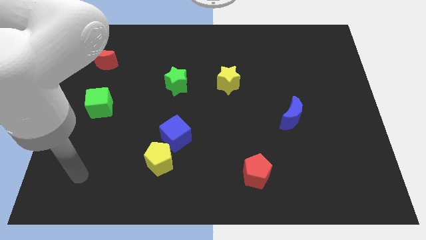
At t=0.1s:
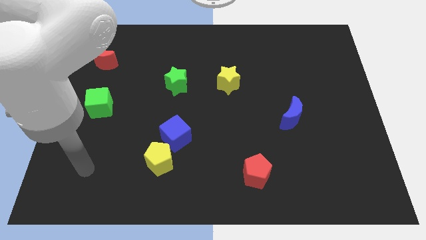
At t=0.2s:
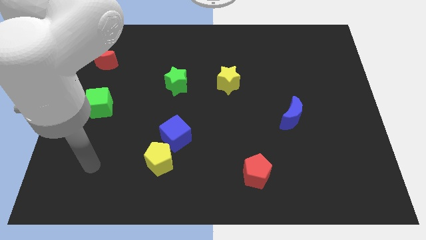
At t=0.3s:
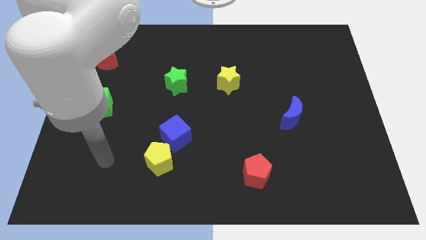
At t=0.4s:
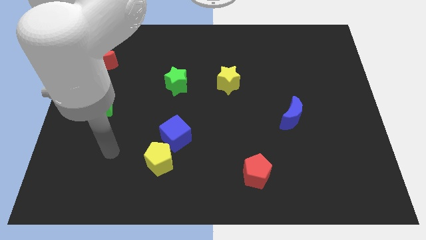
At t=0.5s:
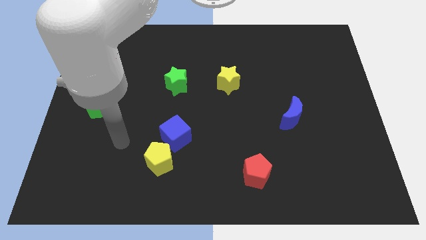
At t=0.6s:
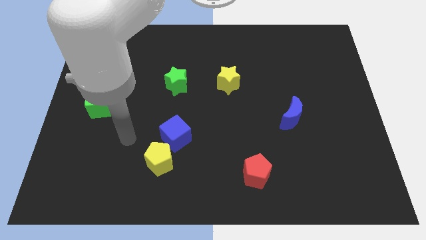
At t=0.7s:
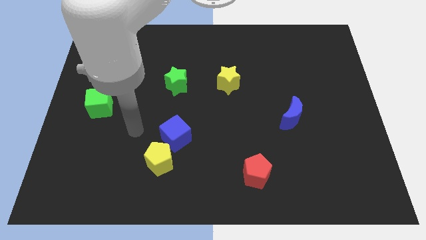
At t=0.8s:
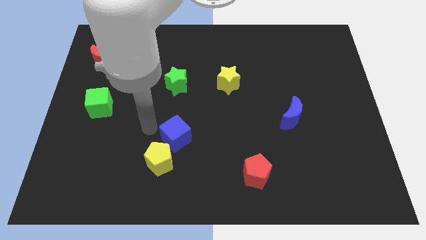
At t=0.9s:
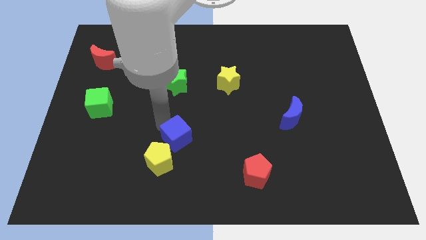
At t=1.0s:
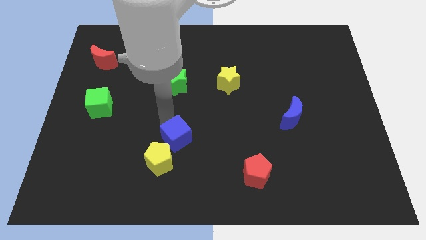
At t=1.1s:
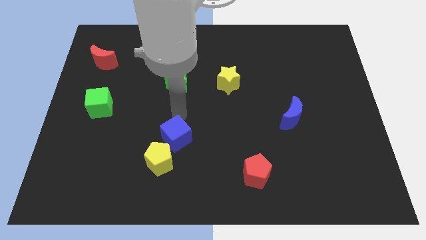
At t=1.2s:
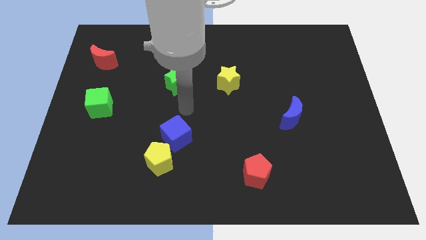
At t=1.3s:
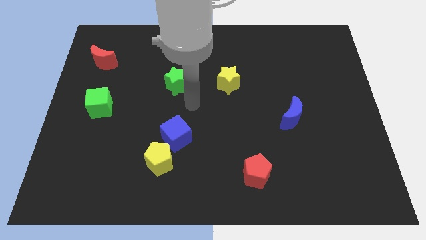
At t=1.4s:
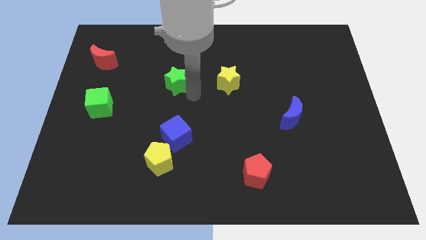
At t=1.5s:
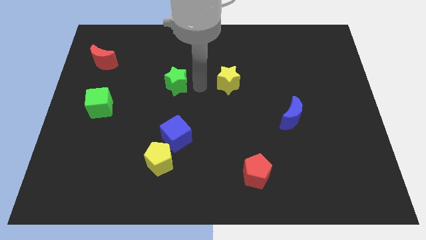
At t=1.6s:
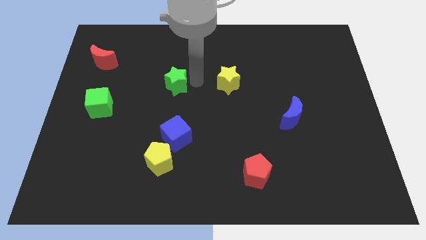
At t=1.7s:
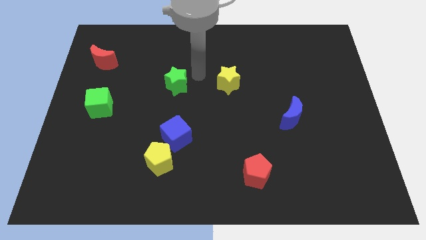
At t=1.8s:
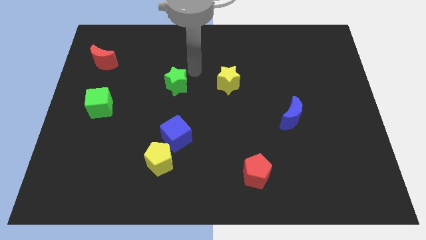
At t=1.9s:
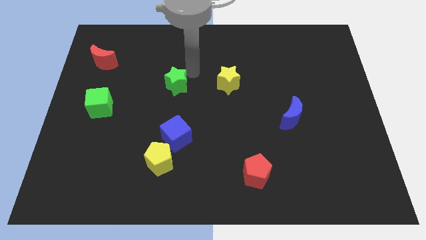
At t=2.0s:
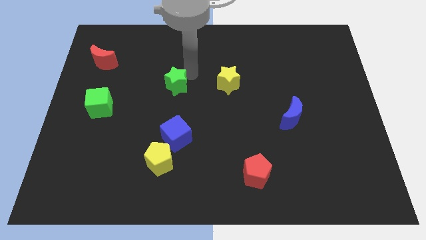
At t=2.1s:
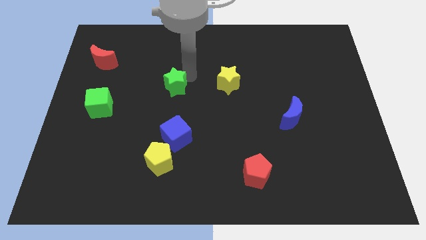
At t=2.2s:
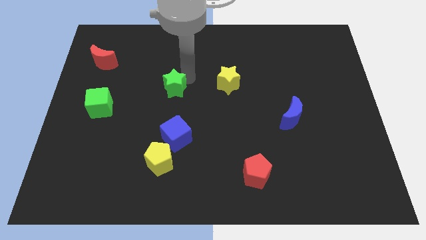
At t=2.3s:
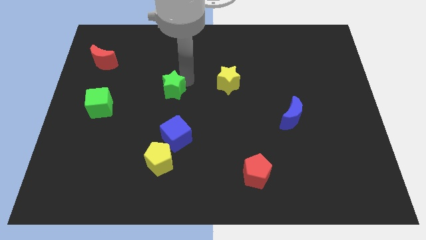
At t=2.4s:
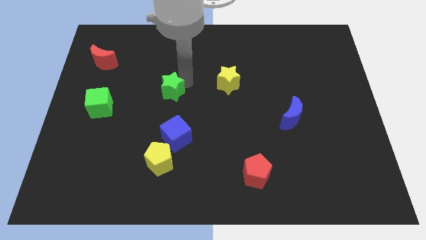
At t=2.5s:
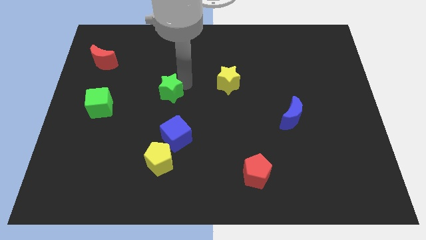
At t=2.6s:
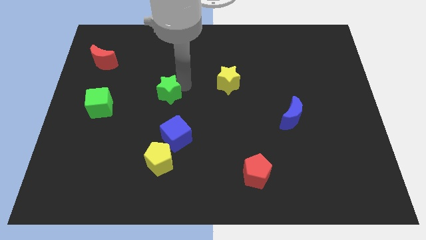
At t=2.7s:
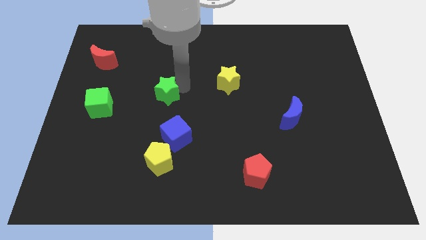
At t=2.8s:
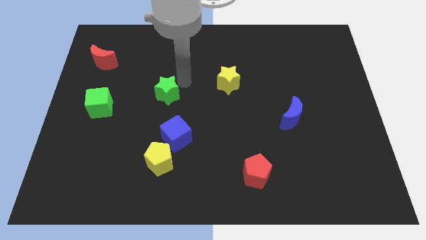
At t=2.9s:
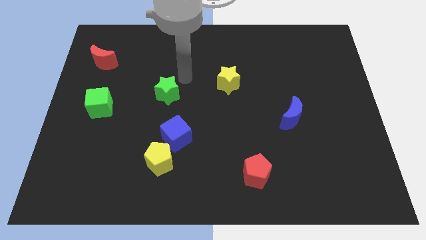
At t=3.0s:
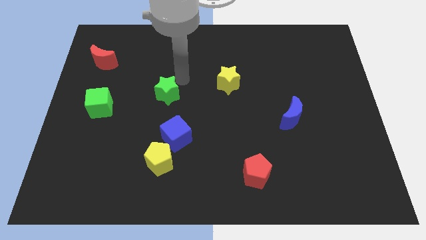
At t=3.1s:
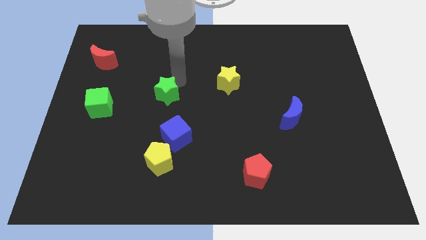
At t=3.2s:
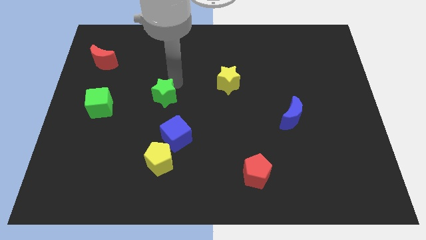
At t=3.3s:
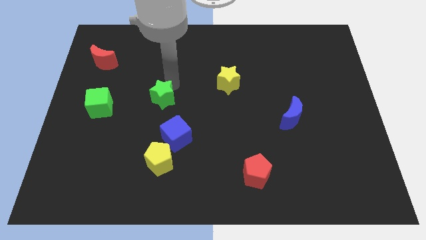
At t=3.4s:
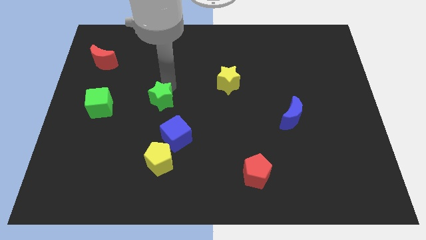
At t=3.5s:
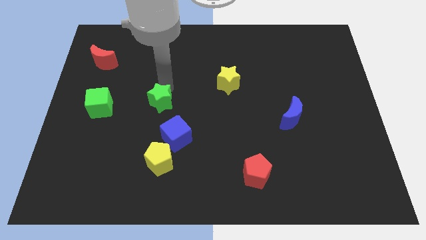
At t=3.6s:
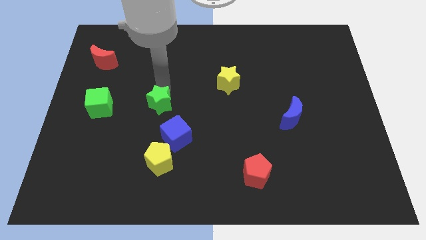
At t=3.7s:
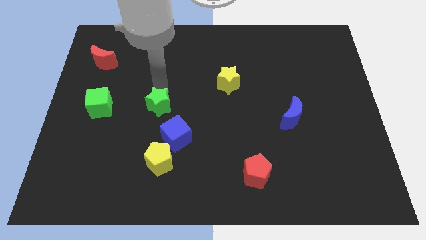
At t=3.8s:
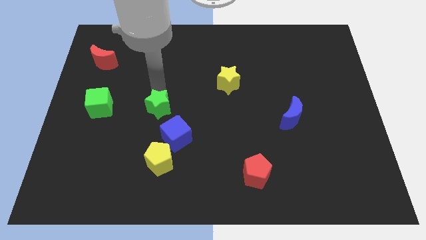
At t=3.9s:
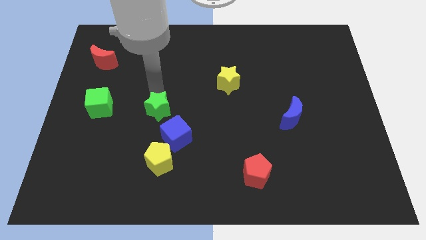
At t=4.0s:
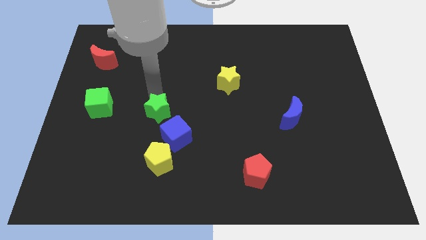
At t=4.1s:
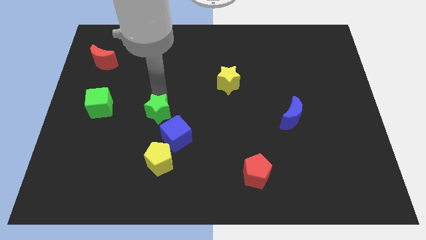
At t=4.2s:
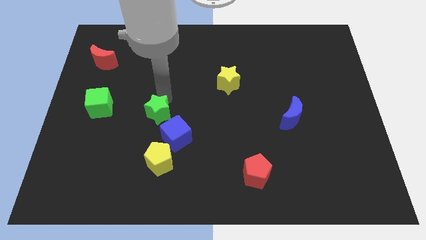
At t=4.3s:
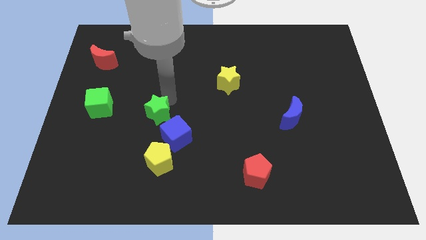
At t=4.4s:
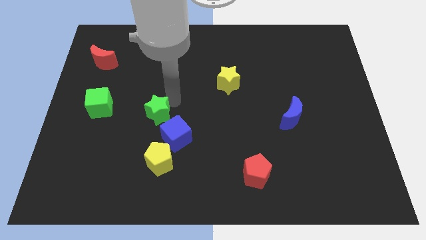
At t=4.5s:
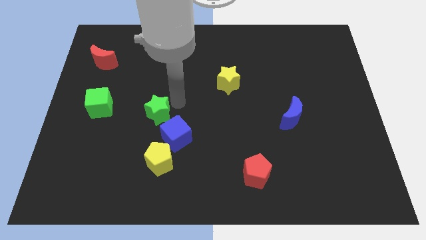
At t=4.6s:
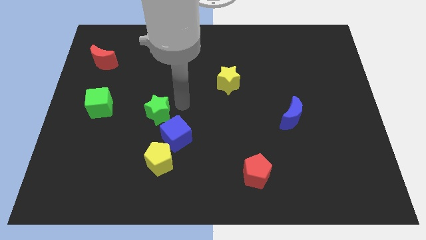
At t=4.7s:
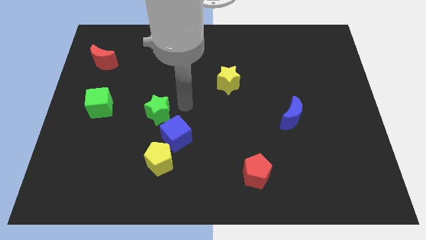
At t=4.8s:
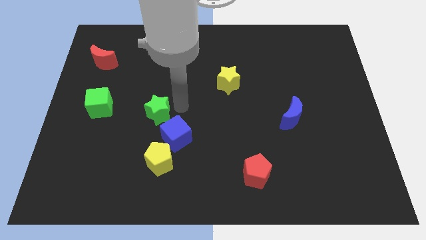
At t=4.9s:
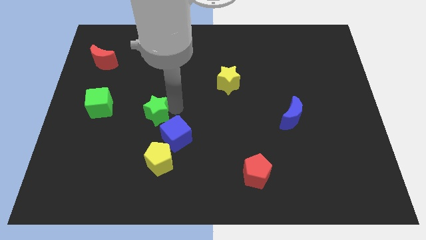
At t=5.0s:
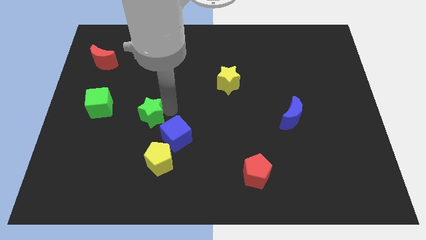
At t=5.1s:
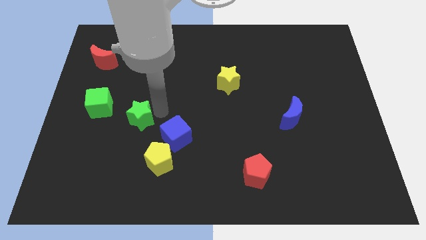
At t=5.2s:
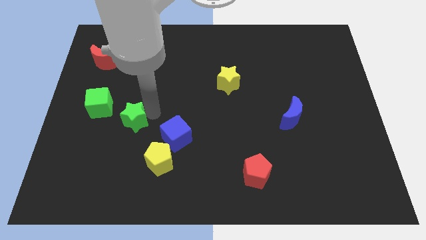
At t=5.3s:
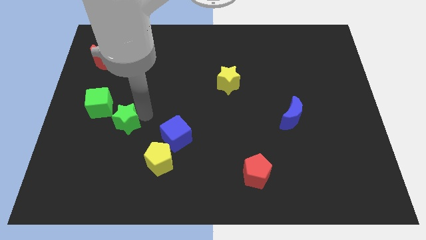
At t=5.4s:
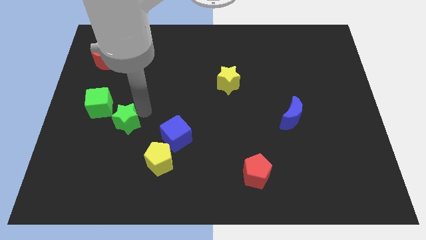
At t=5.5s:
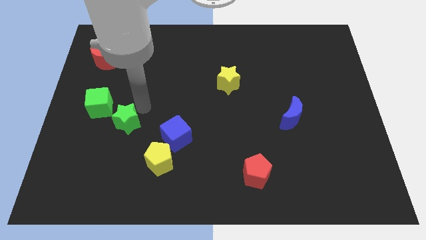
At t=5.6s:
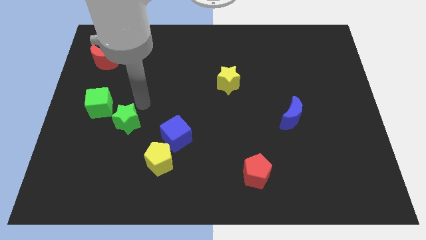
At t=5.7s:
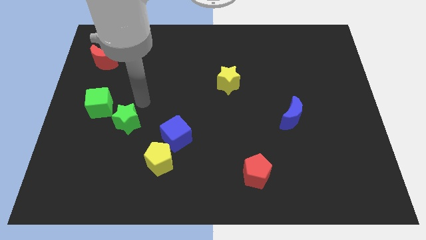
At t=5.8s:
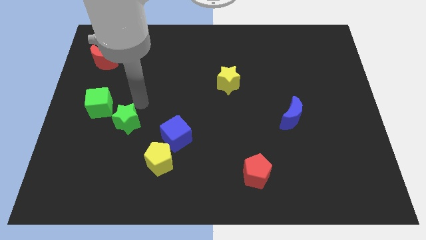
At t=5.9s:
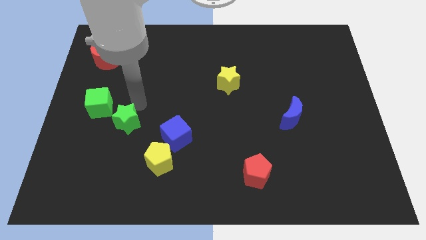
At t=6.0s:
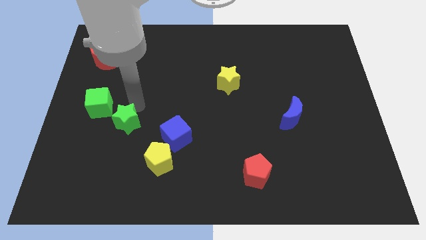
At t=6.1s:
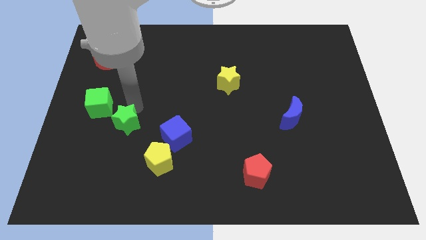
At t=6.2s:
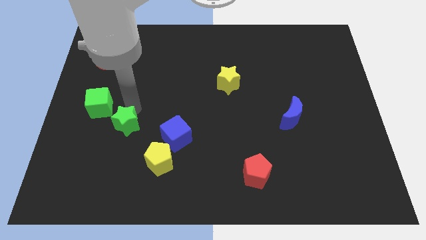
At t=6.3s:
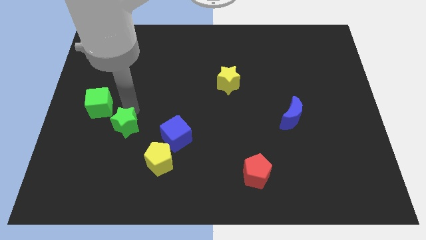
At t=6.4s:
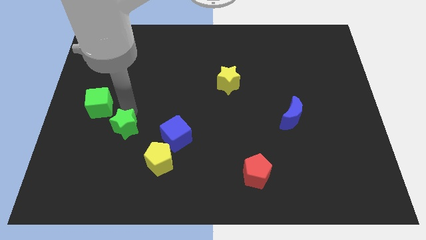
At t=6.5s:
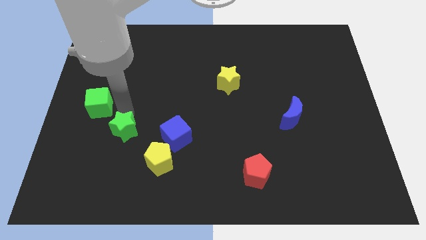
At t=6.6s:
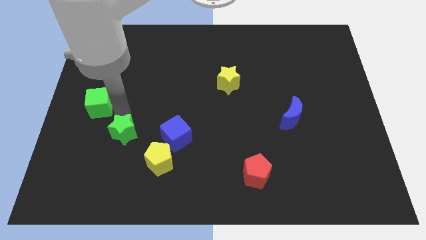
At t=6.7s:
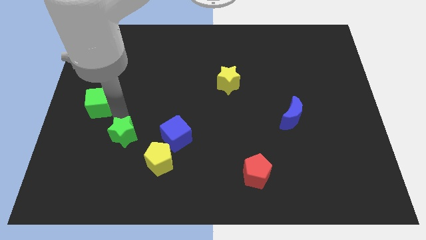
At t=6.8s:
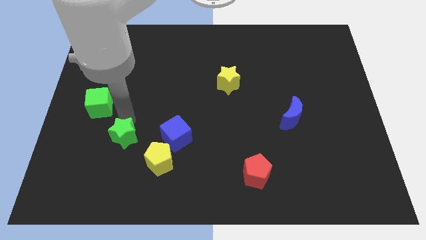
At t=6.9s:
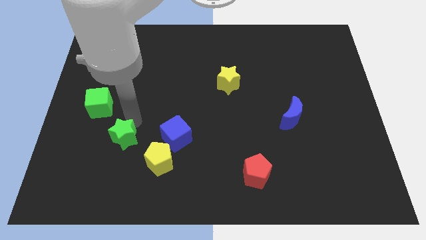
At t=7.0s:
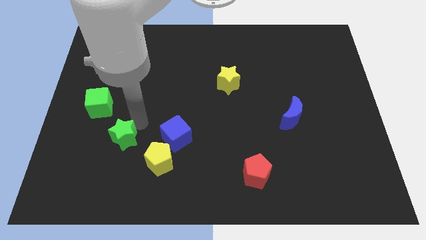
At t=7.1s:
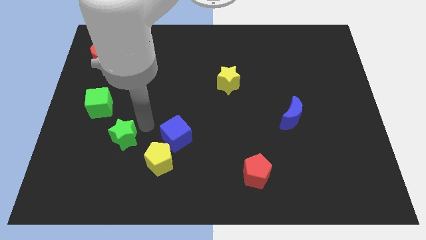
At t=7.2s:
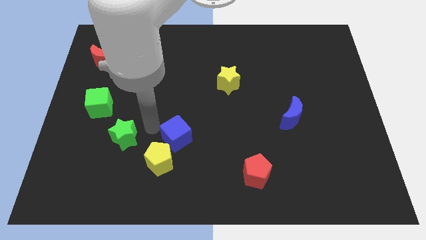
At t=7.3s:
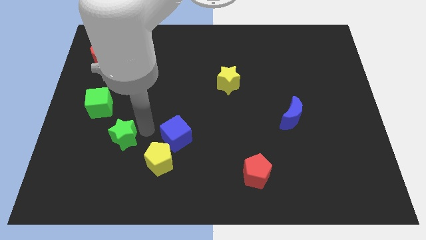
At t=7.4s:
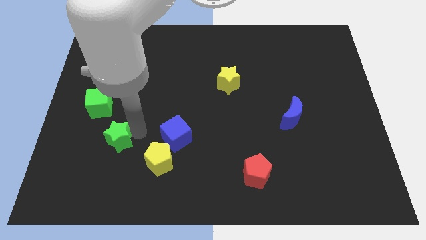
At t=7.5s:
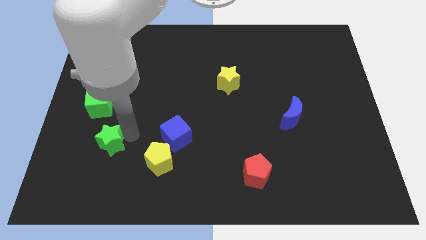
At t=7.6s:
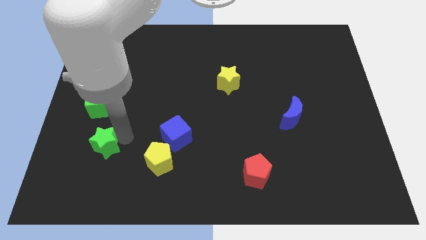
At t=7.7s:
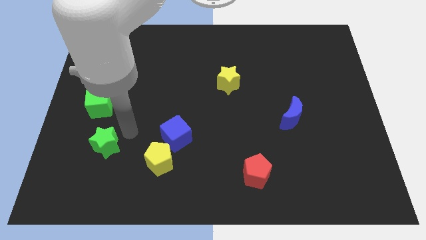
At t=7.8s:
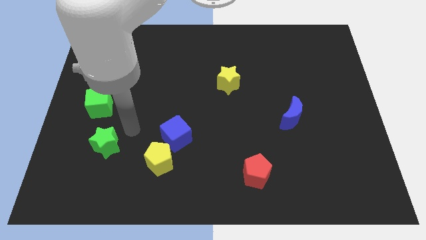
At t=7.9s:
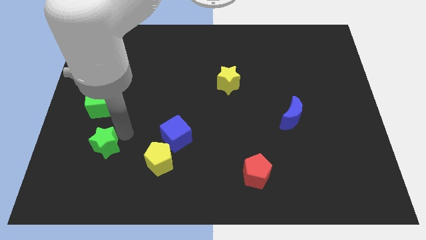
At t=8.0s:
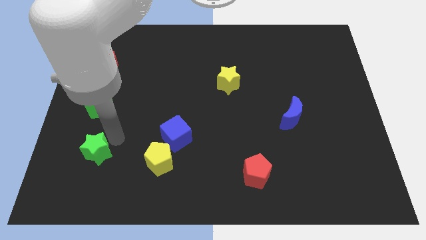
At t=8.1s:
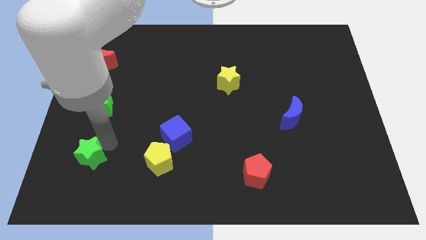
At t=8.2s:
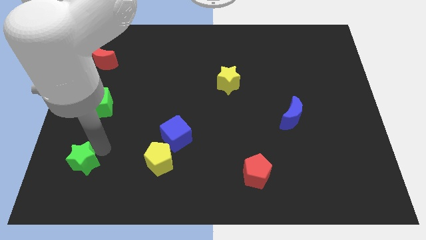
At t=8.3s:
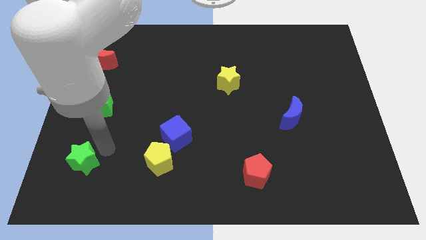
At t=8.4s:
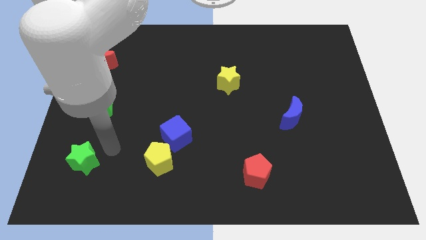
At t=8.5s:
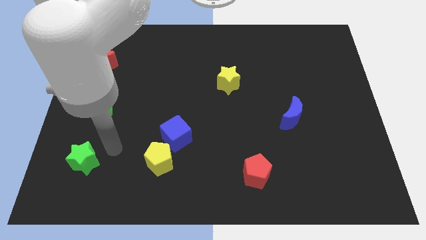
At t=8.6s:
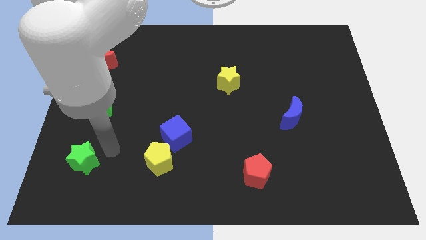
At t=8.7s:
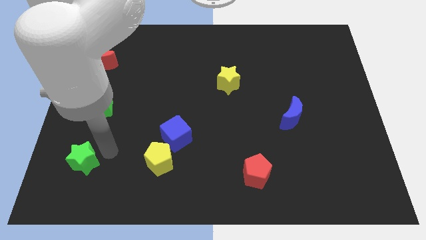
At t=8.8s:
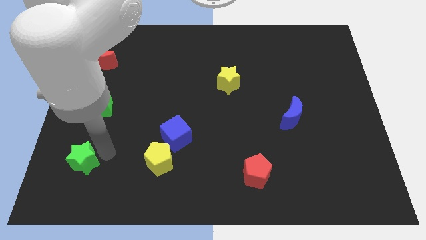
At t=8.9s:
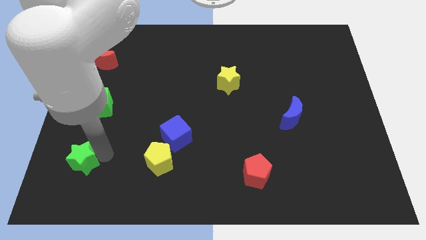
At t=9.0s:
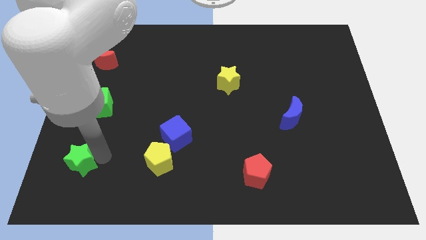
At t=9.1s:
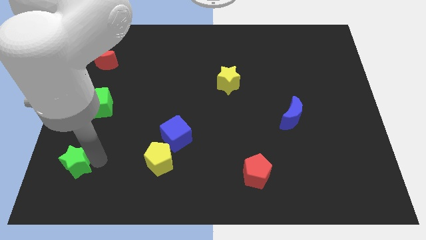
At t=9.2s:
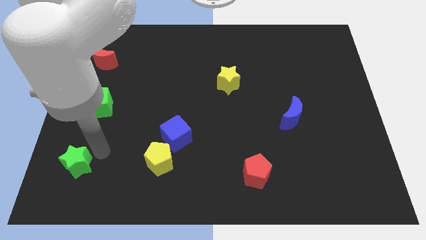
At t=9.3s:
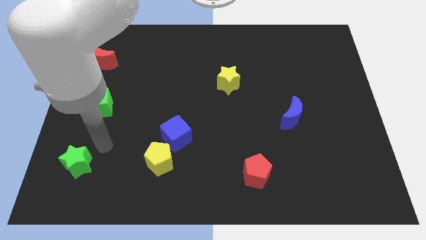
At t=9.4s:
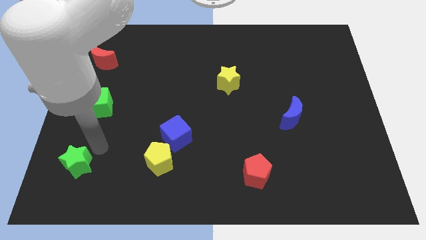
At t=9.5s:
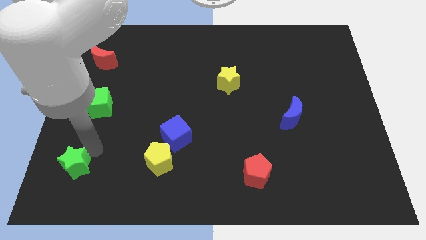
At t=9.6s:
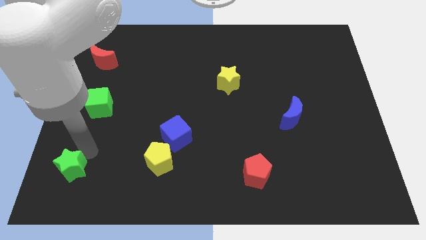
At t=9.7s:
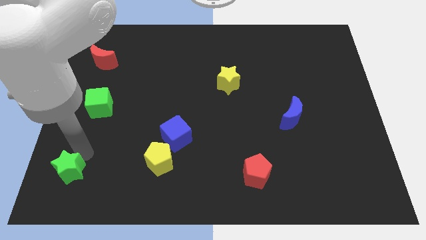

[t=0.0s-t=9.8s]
put the green star to the bottom left corner
